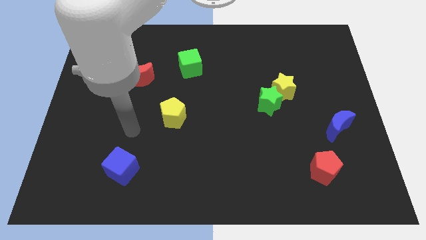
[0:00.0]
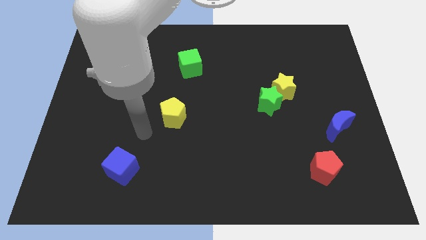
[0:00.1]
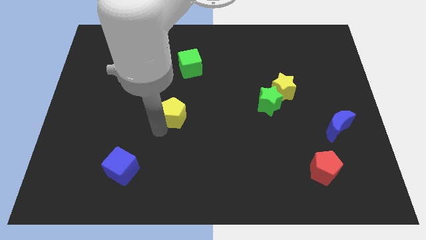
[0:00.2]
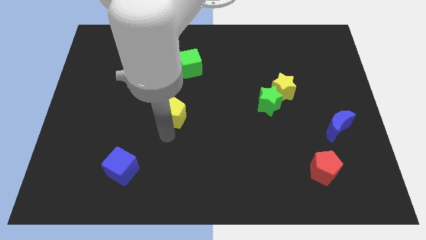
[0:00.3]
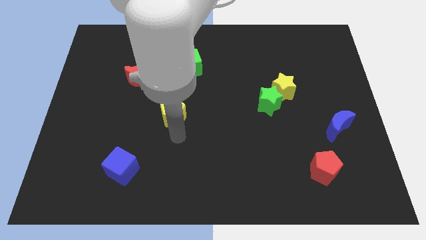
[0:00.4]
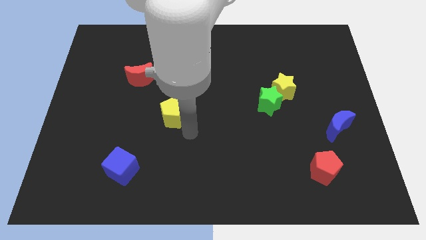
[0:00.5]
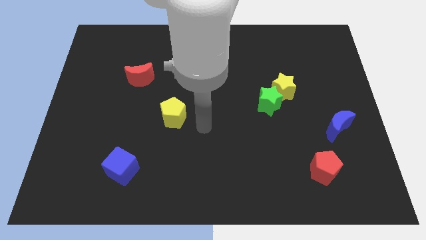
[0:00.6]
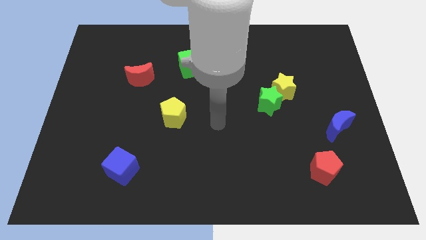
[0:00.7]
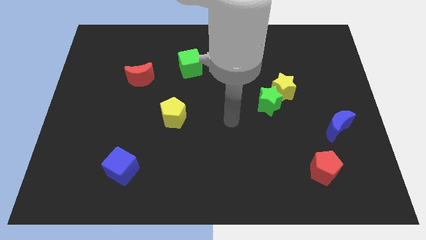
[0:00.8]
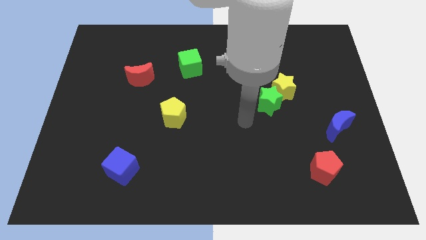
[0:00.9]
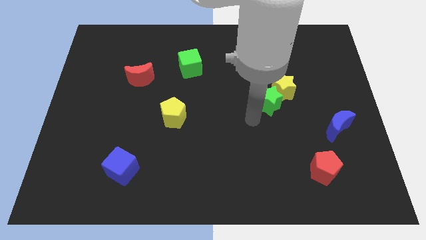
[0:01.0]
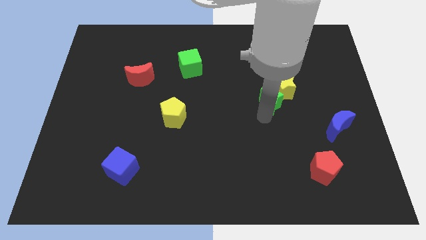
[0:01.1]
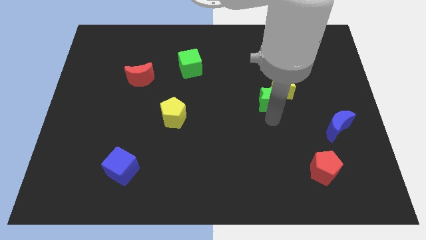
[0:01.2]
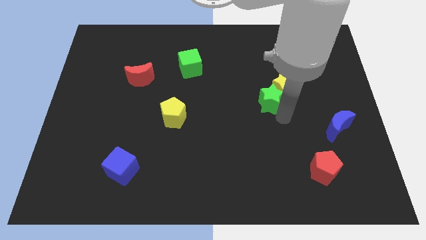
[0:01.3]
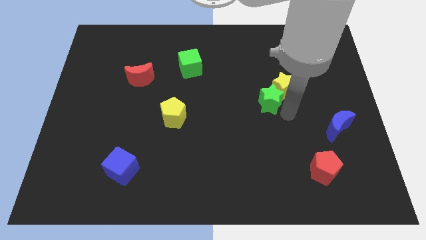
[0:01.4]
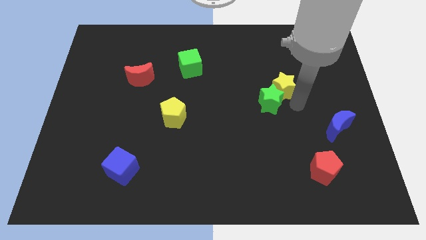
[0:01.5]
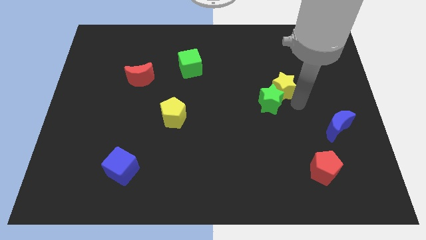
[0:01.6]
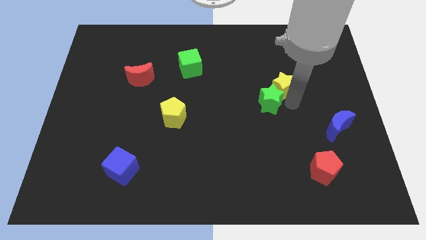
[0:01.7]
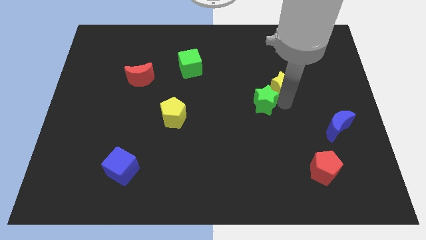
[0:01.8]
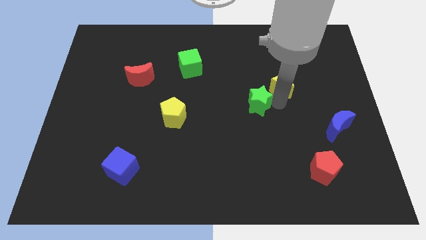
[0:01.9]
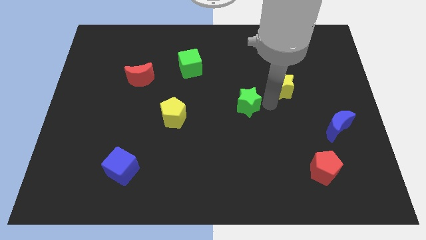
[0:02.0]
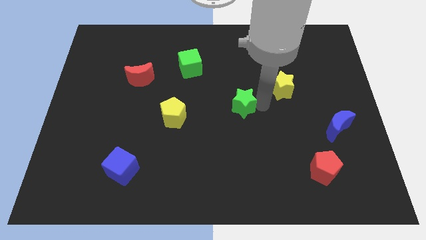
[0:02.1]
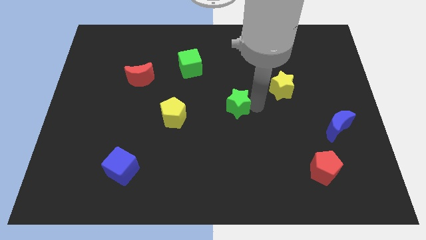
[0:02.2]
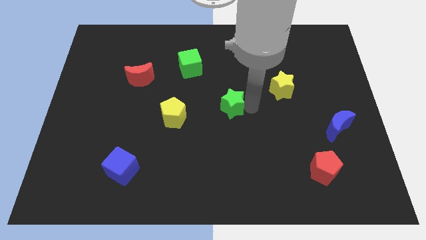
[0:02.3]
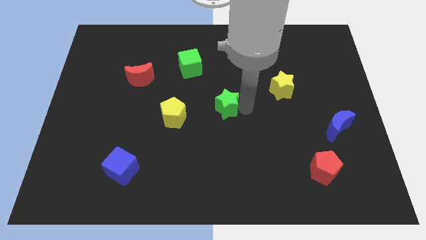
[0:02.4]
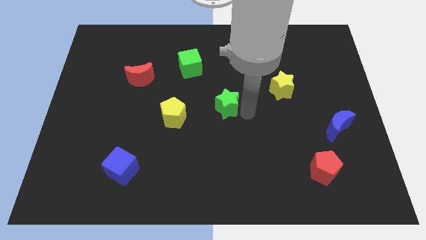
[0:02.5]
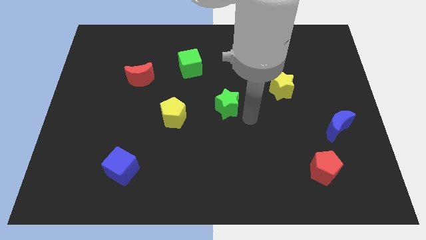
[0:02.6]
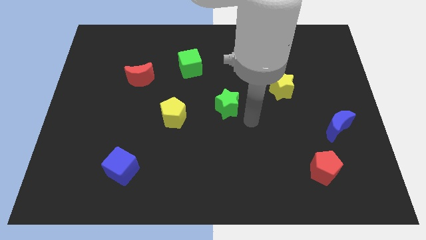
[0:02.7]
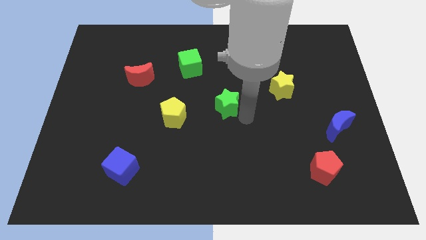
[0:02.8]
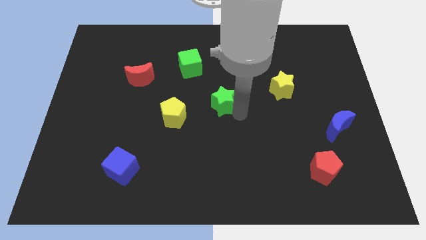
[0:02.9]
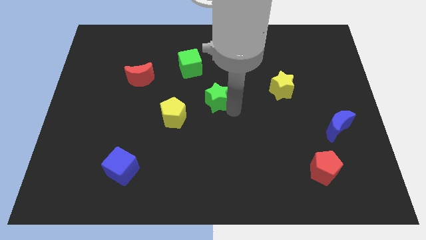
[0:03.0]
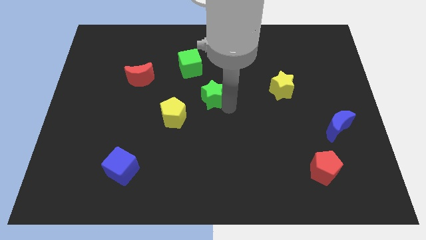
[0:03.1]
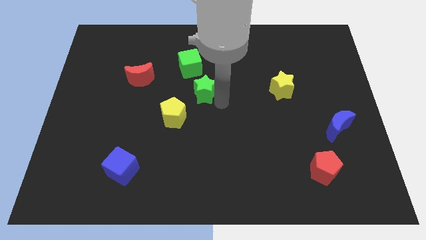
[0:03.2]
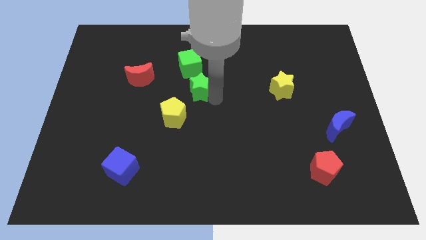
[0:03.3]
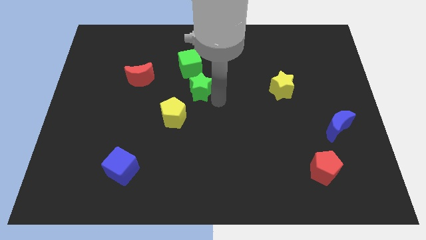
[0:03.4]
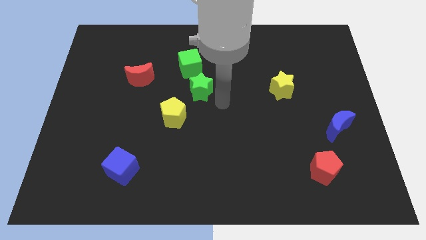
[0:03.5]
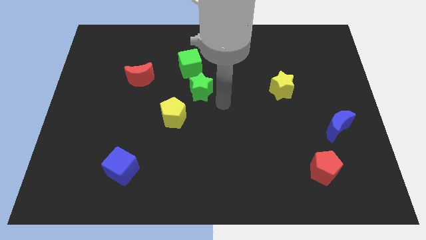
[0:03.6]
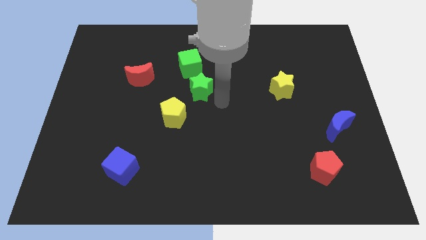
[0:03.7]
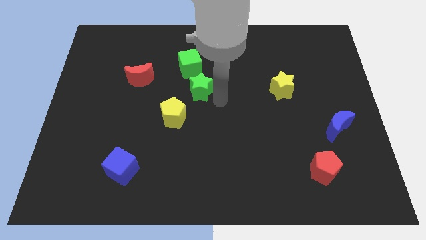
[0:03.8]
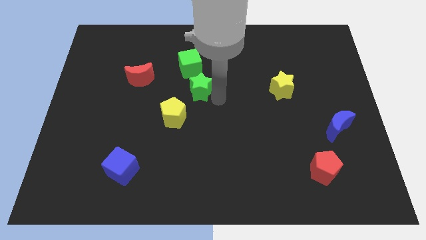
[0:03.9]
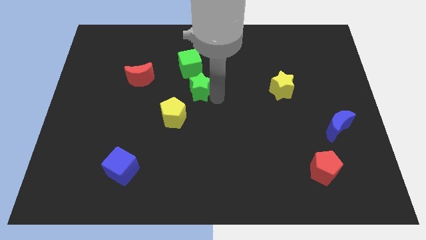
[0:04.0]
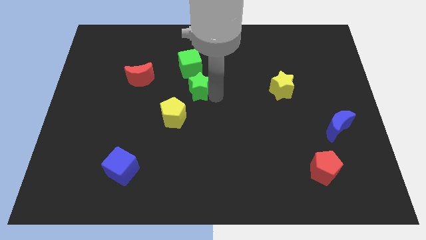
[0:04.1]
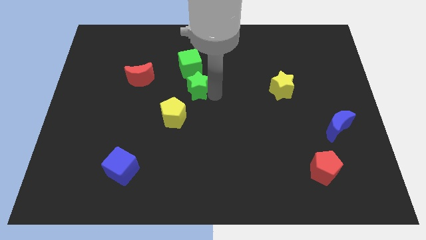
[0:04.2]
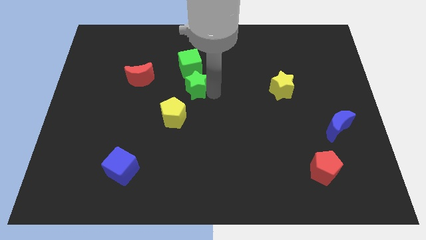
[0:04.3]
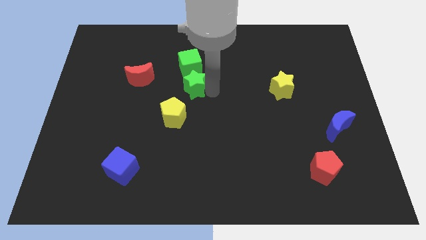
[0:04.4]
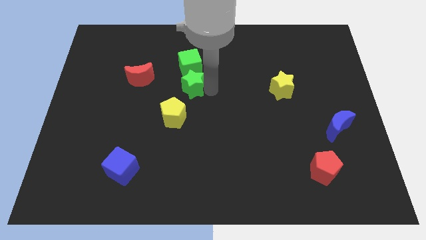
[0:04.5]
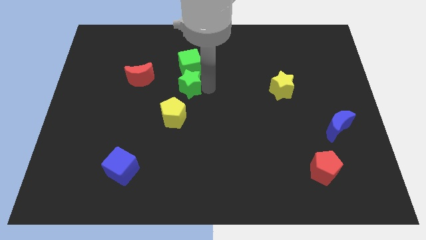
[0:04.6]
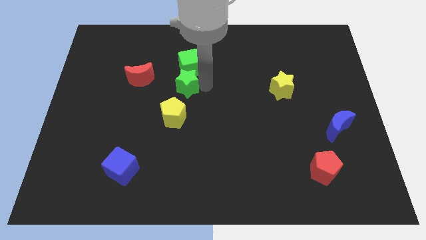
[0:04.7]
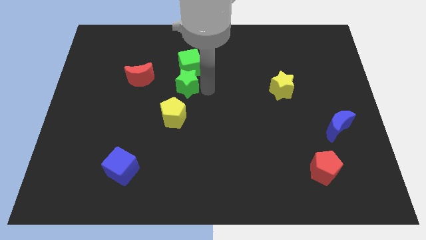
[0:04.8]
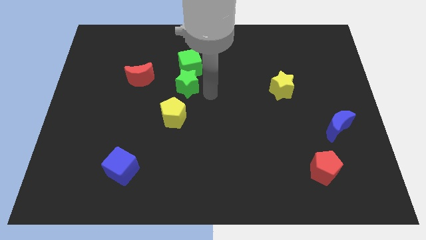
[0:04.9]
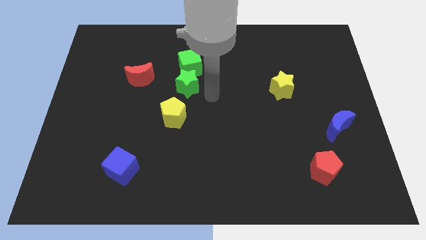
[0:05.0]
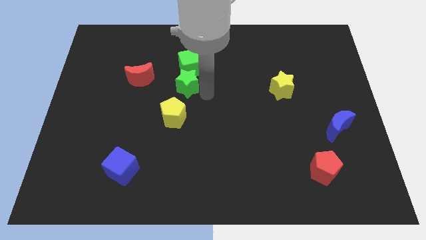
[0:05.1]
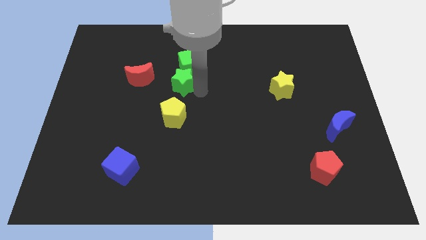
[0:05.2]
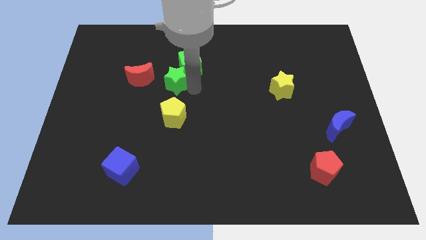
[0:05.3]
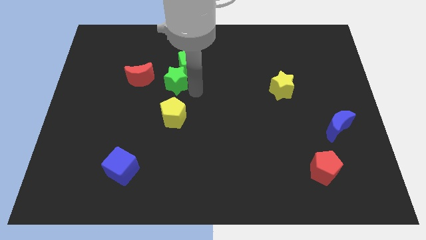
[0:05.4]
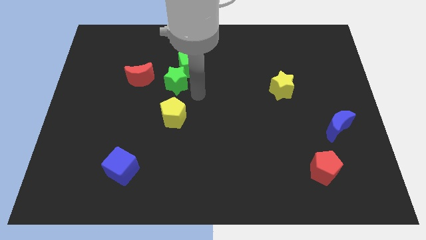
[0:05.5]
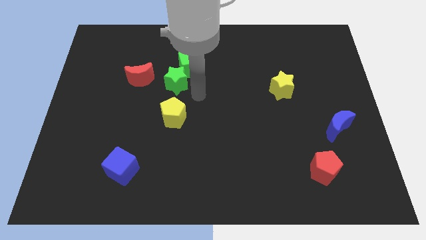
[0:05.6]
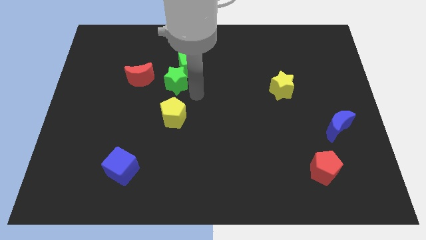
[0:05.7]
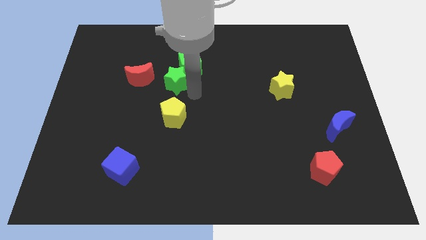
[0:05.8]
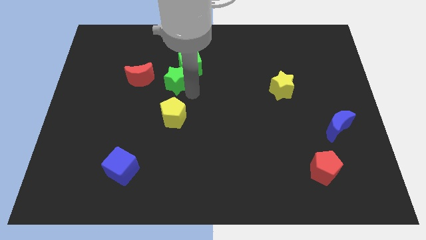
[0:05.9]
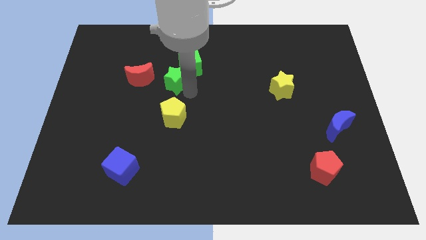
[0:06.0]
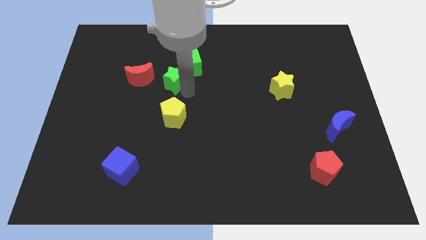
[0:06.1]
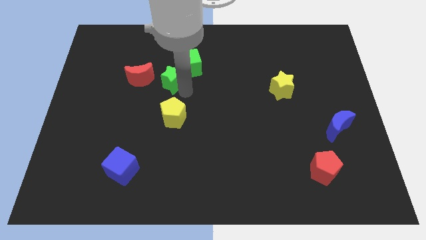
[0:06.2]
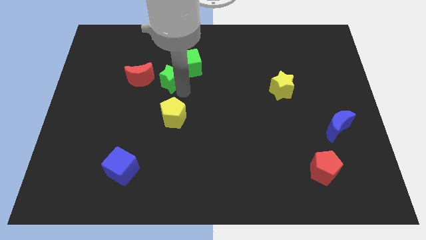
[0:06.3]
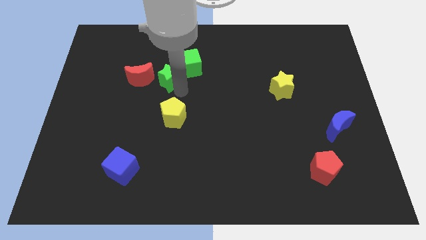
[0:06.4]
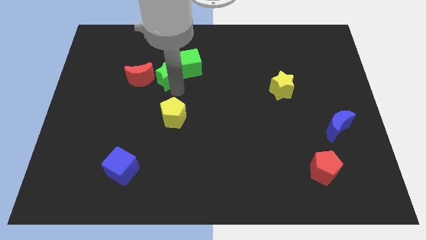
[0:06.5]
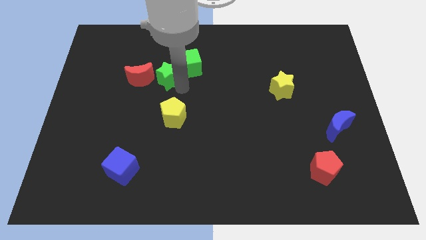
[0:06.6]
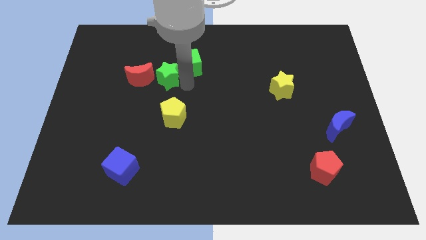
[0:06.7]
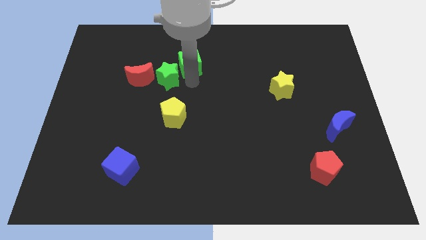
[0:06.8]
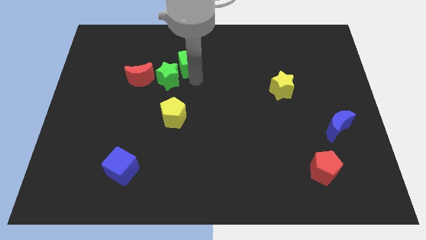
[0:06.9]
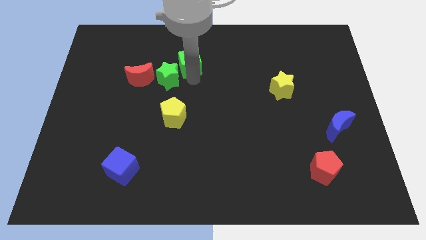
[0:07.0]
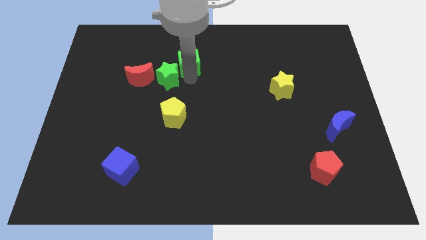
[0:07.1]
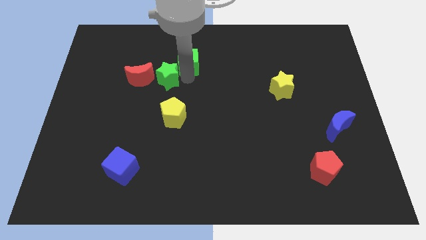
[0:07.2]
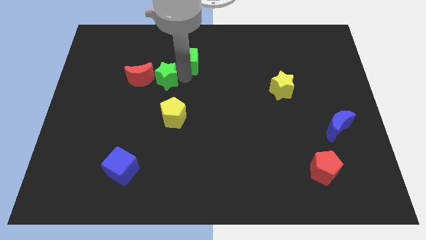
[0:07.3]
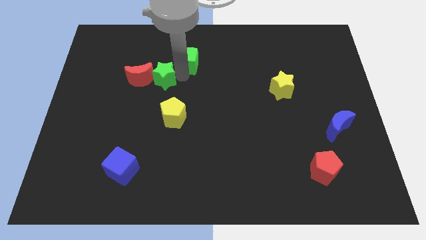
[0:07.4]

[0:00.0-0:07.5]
move the green star next to the red moon

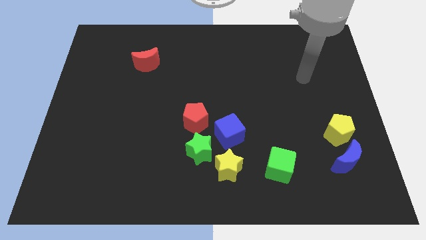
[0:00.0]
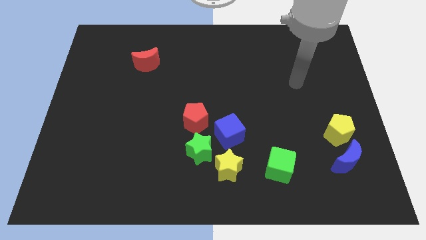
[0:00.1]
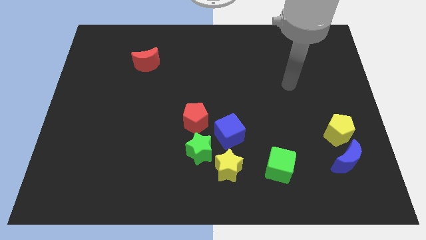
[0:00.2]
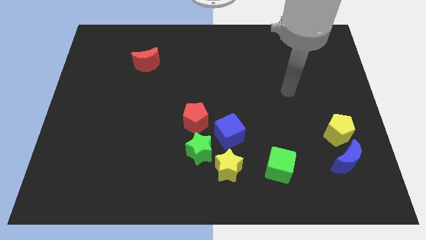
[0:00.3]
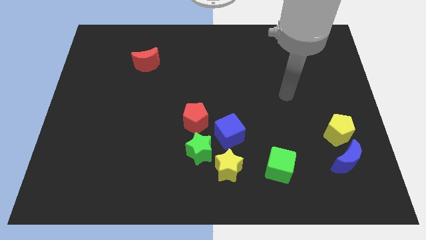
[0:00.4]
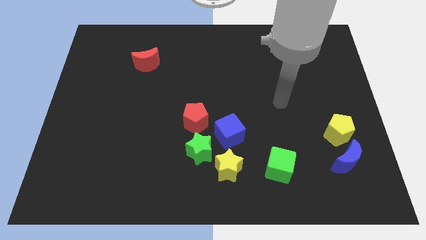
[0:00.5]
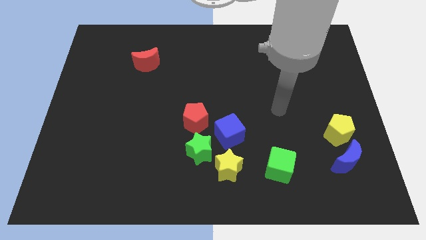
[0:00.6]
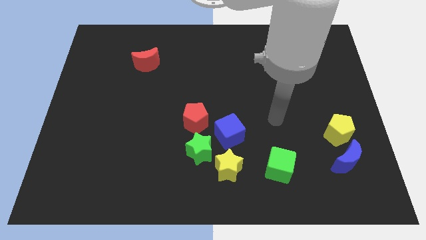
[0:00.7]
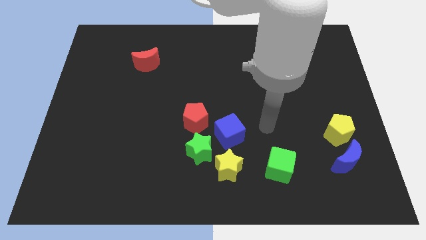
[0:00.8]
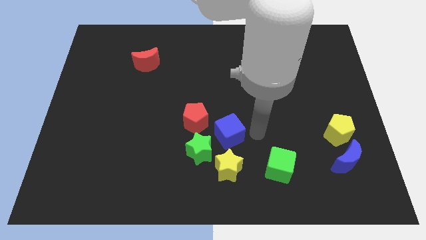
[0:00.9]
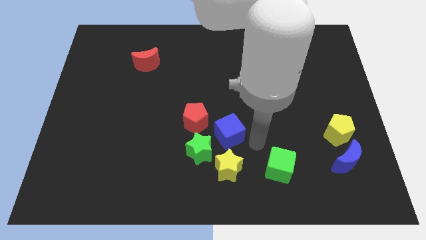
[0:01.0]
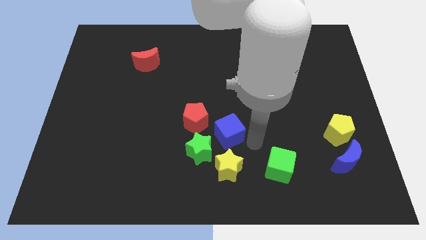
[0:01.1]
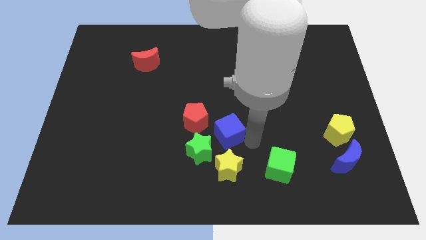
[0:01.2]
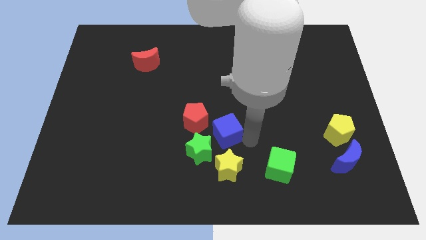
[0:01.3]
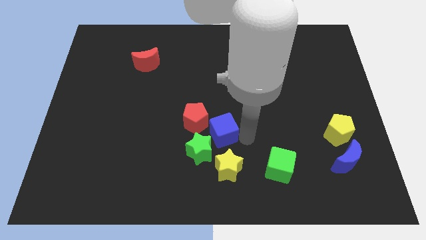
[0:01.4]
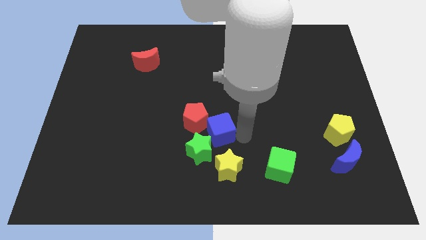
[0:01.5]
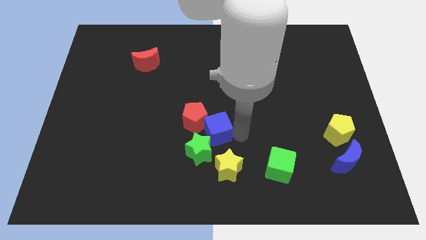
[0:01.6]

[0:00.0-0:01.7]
put the blue cube to the red pentagon
